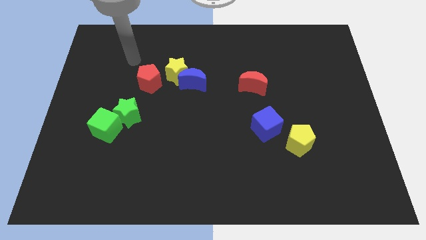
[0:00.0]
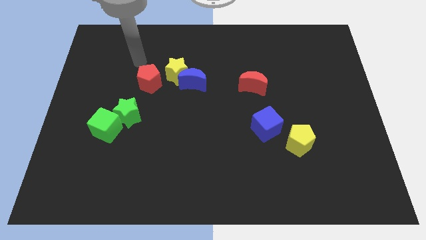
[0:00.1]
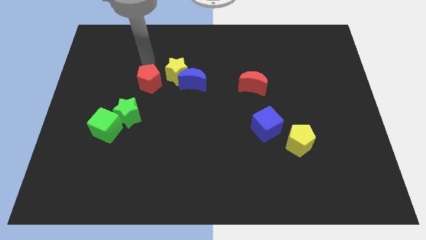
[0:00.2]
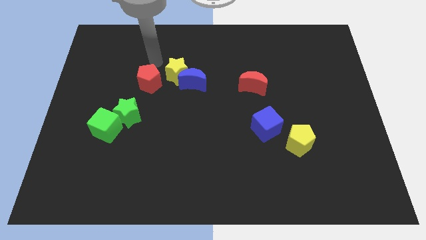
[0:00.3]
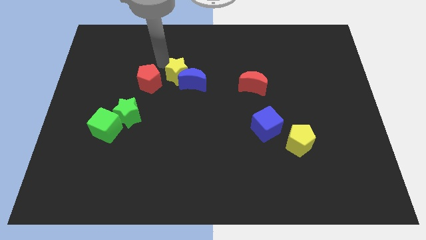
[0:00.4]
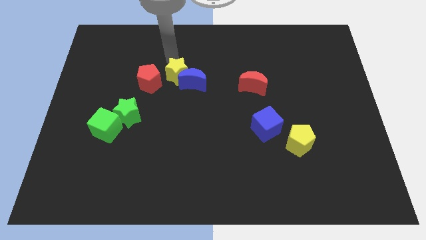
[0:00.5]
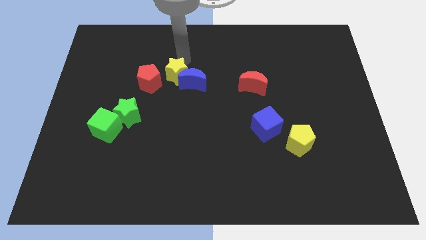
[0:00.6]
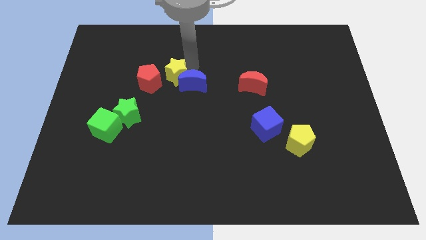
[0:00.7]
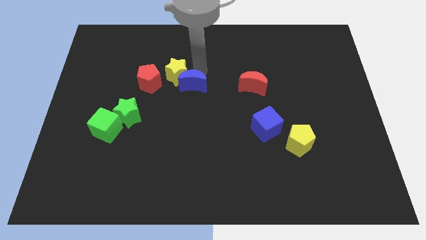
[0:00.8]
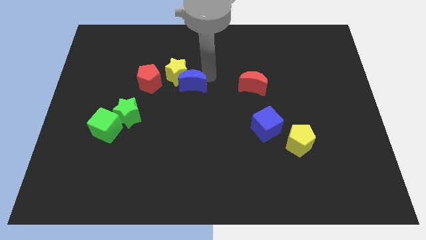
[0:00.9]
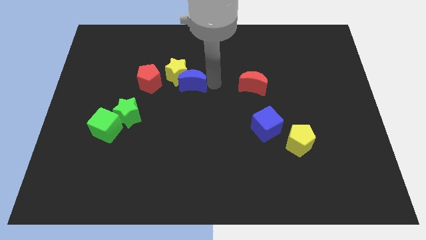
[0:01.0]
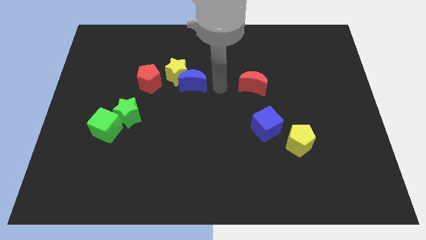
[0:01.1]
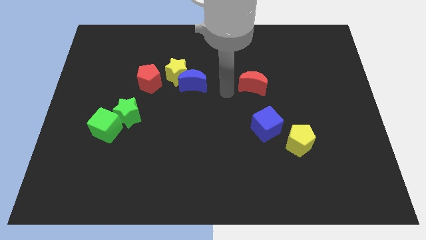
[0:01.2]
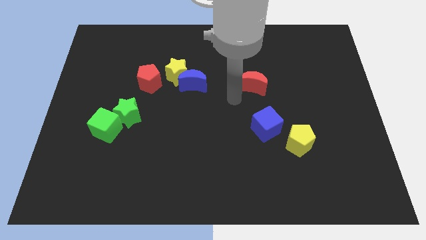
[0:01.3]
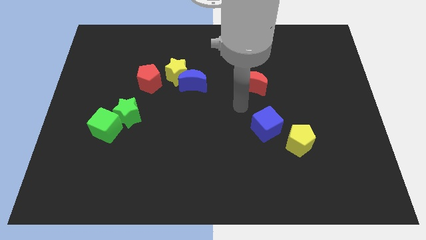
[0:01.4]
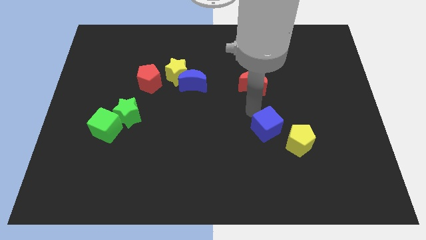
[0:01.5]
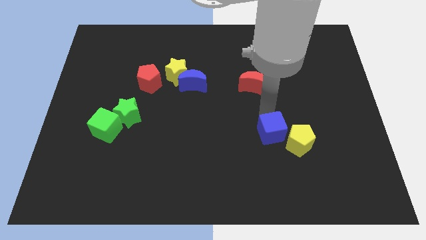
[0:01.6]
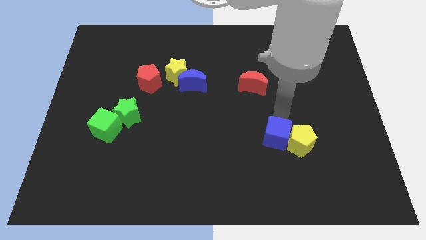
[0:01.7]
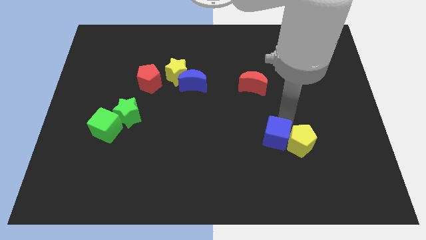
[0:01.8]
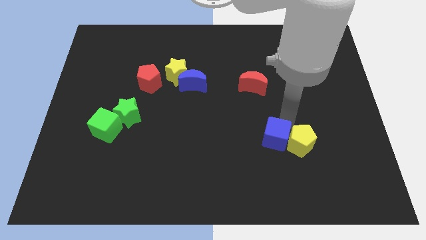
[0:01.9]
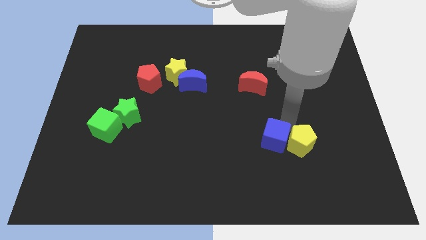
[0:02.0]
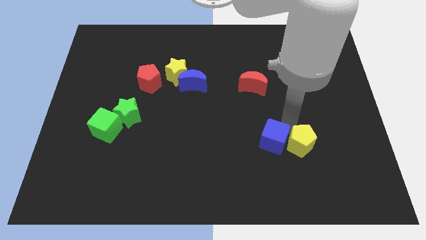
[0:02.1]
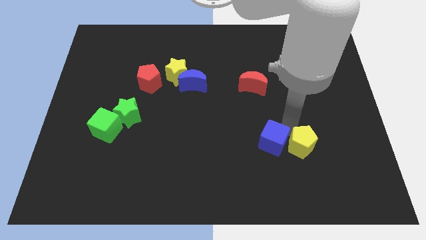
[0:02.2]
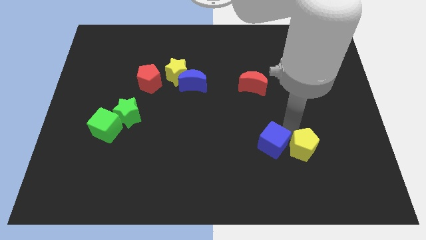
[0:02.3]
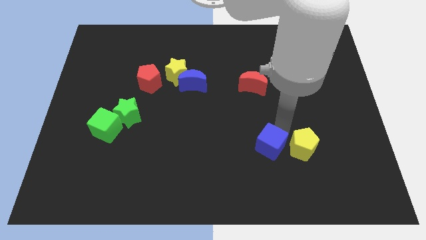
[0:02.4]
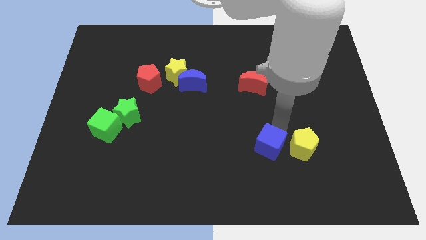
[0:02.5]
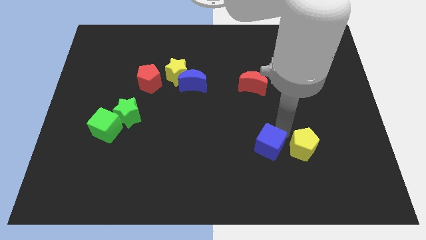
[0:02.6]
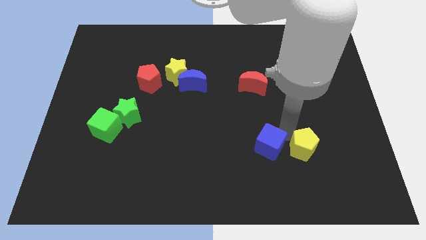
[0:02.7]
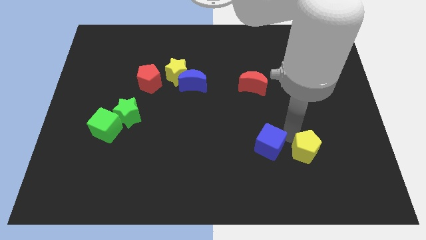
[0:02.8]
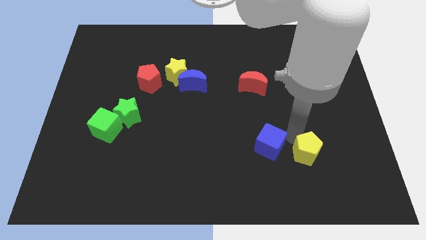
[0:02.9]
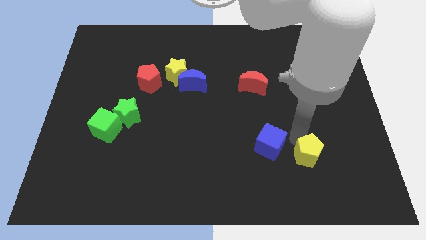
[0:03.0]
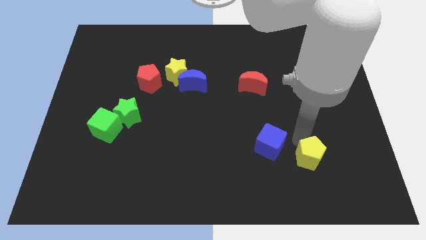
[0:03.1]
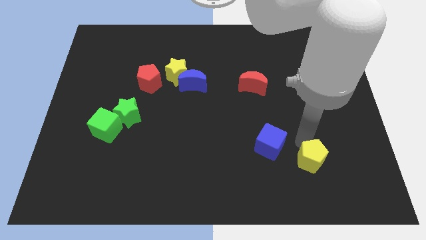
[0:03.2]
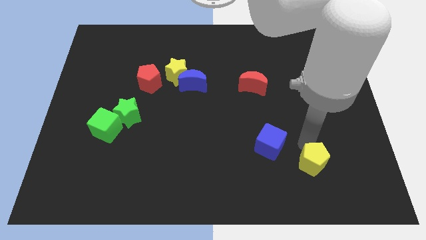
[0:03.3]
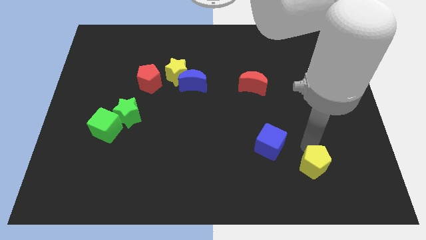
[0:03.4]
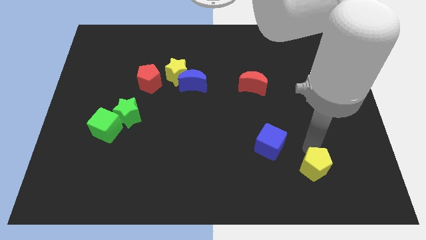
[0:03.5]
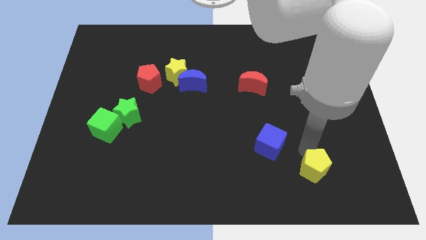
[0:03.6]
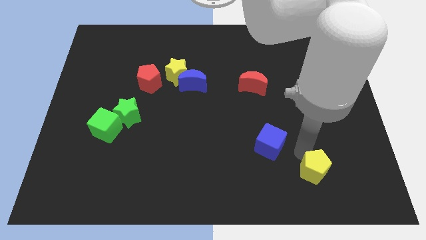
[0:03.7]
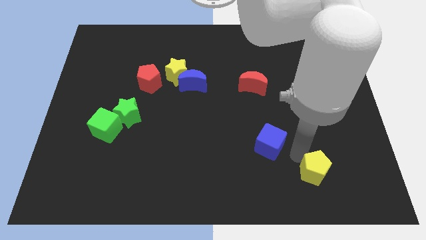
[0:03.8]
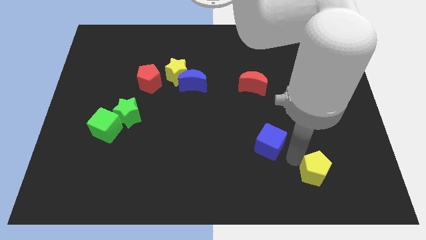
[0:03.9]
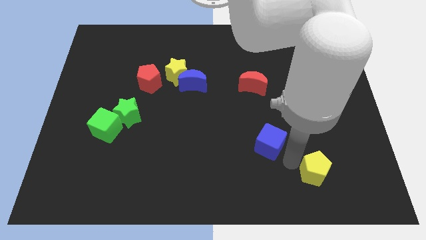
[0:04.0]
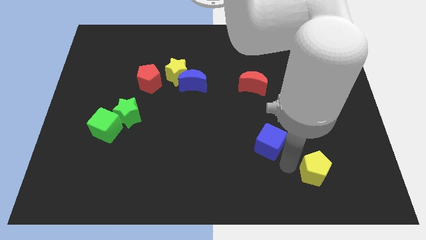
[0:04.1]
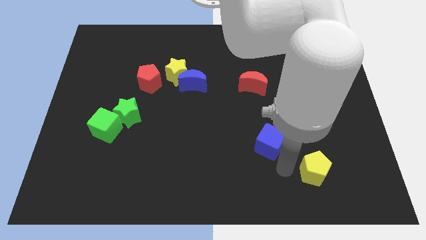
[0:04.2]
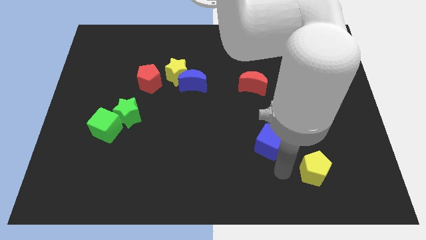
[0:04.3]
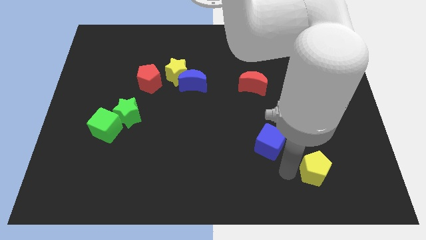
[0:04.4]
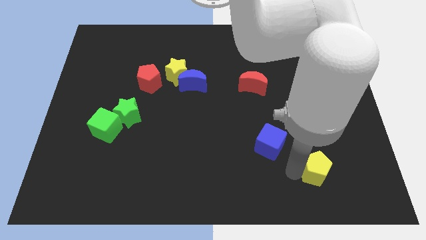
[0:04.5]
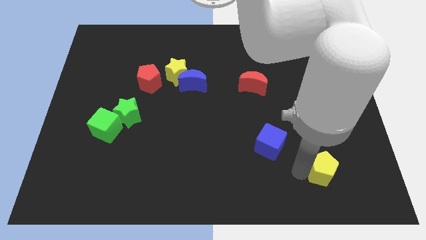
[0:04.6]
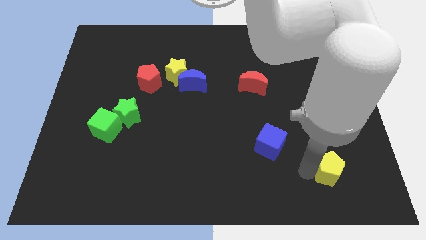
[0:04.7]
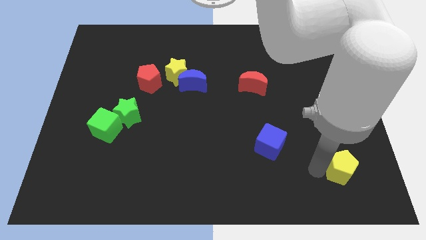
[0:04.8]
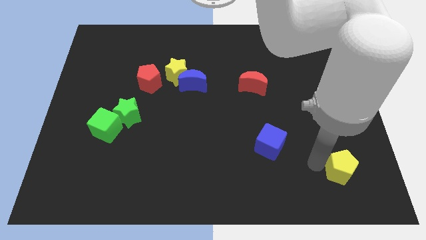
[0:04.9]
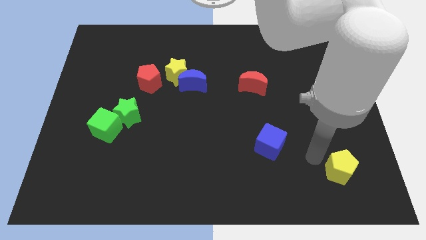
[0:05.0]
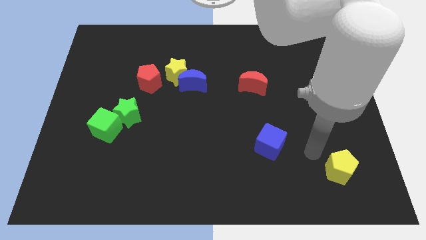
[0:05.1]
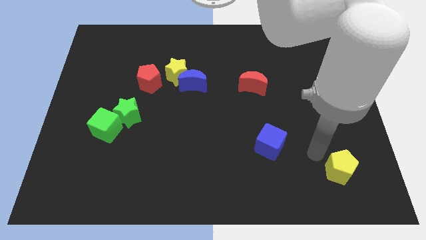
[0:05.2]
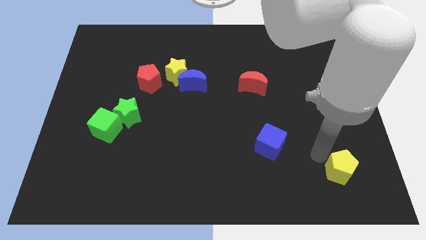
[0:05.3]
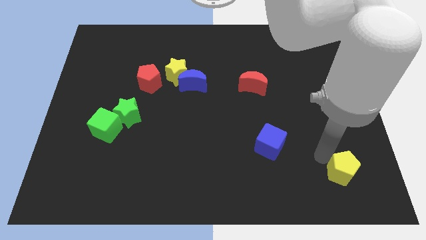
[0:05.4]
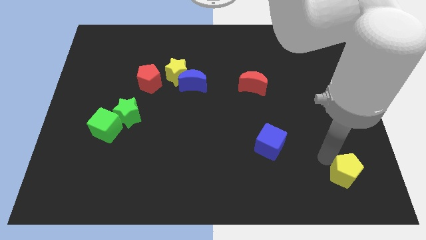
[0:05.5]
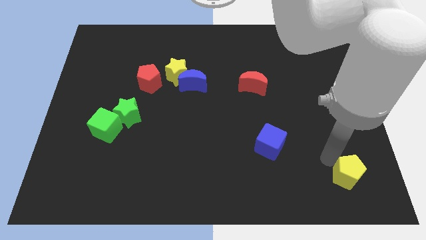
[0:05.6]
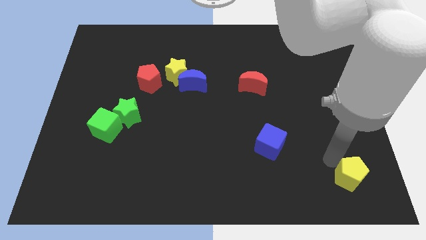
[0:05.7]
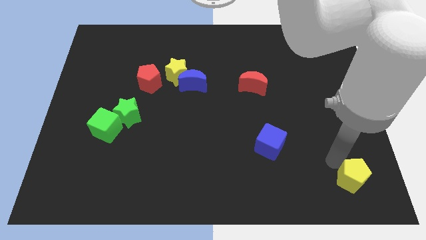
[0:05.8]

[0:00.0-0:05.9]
slide the yellow pentagon to the bottom right of the board

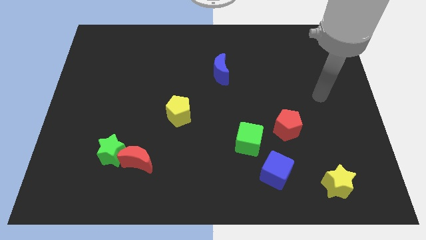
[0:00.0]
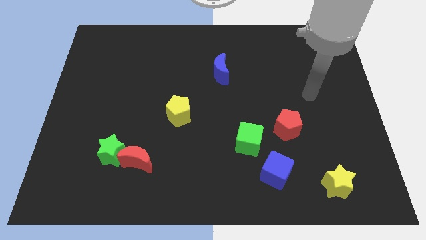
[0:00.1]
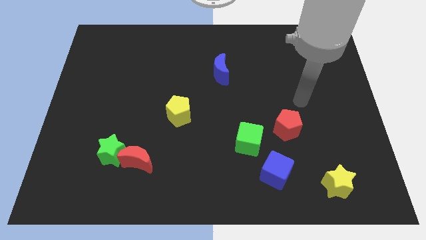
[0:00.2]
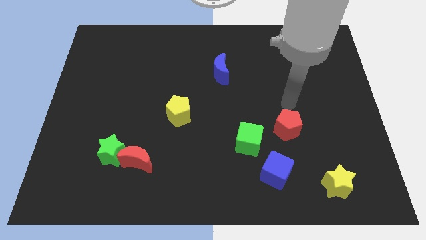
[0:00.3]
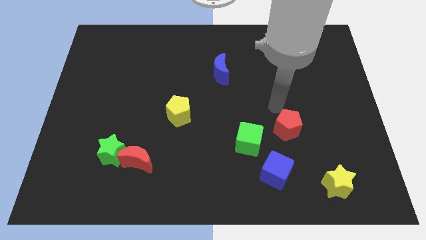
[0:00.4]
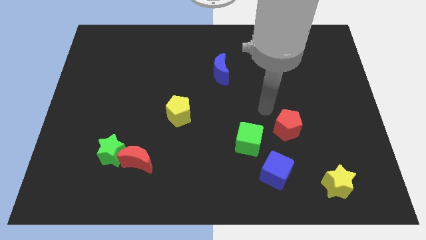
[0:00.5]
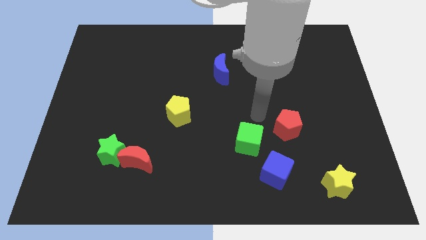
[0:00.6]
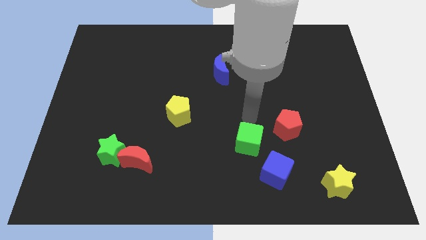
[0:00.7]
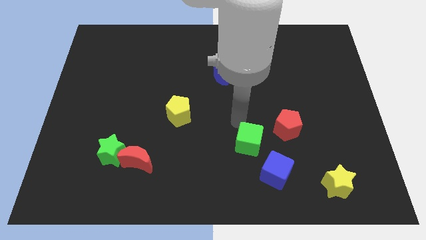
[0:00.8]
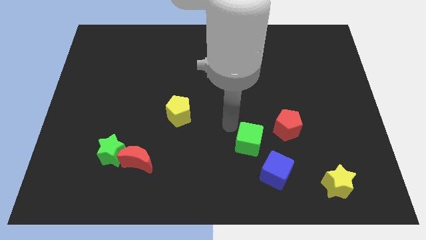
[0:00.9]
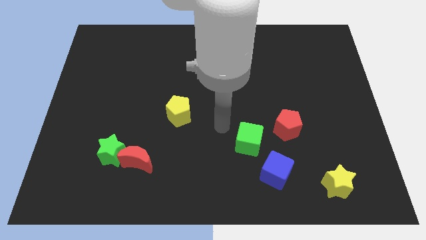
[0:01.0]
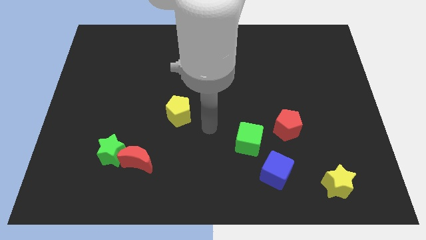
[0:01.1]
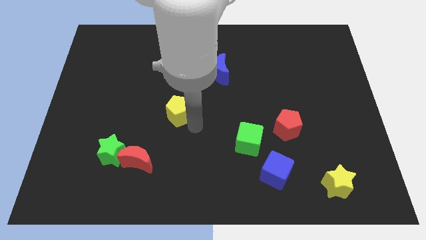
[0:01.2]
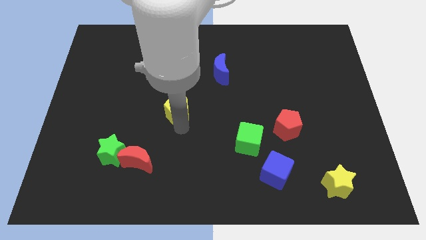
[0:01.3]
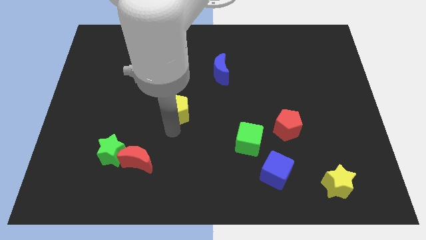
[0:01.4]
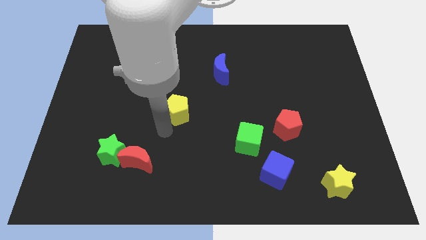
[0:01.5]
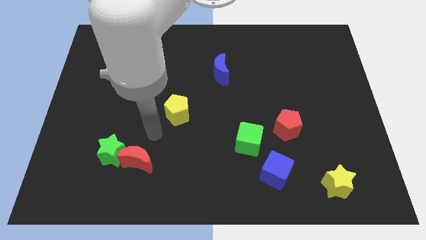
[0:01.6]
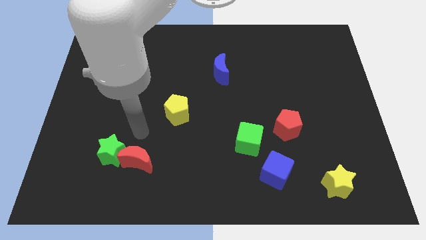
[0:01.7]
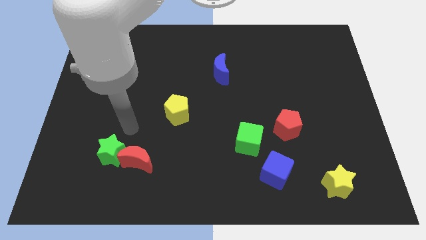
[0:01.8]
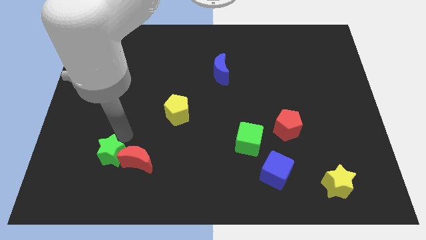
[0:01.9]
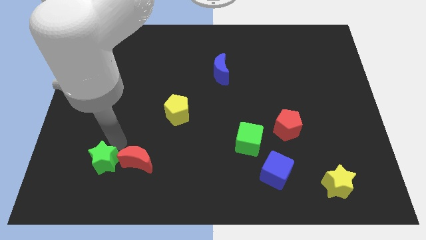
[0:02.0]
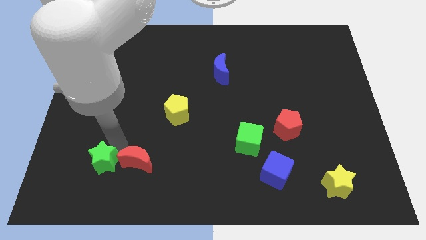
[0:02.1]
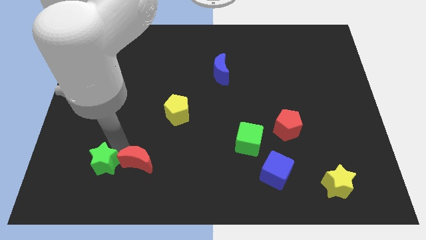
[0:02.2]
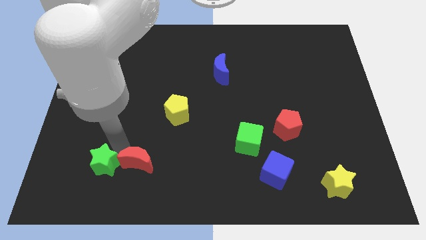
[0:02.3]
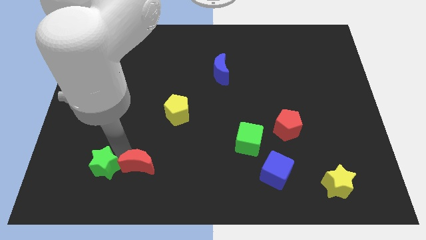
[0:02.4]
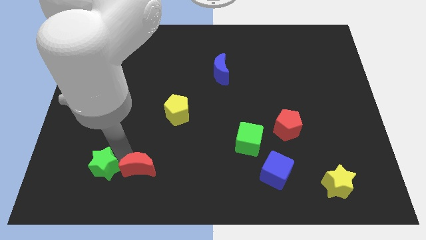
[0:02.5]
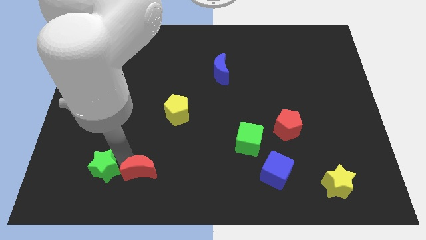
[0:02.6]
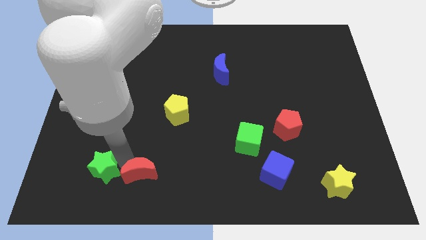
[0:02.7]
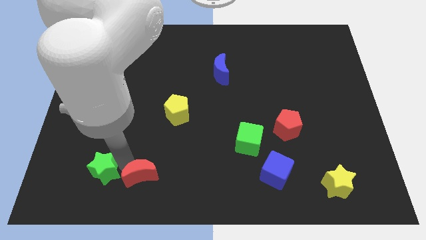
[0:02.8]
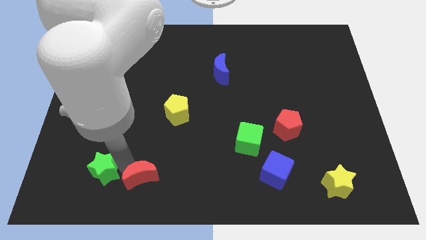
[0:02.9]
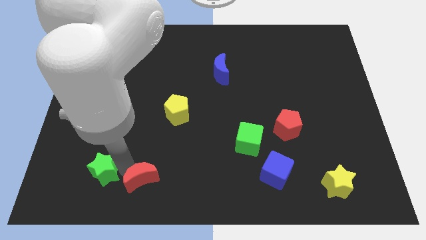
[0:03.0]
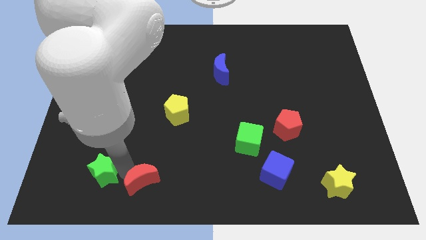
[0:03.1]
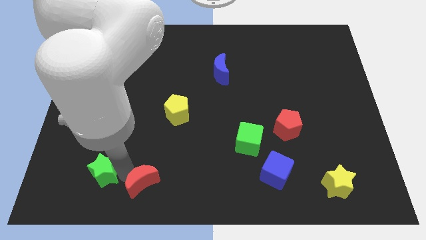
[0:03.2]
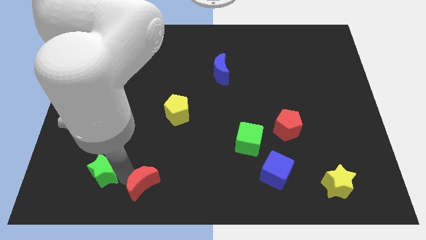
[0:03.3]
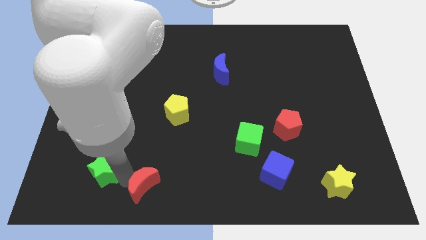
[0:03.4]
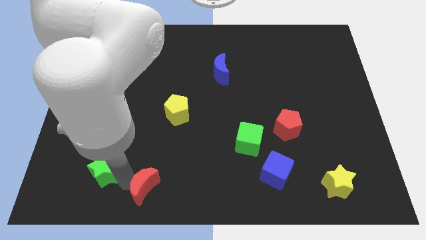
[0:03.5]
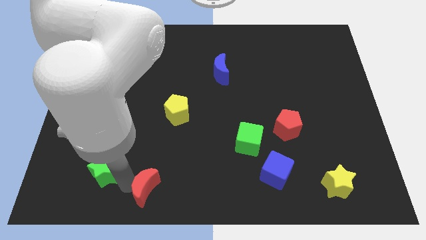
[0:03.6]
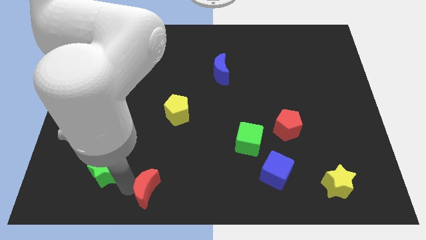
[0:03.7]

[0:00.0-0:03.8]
move the red moon to the bottom side
